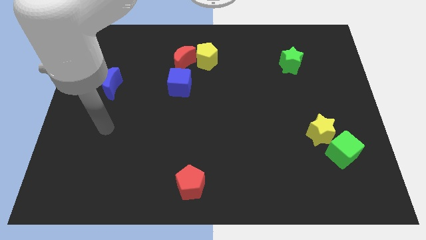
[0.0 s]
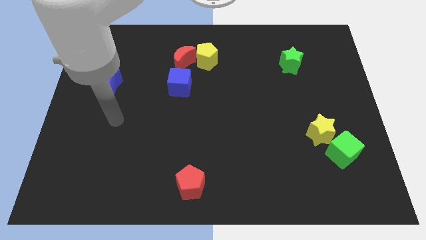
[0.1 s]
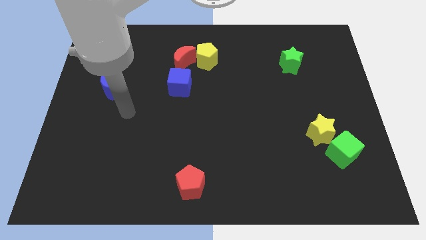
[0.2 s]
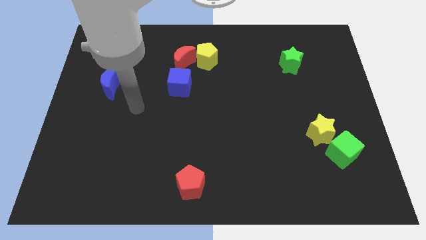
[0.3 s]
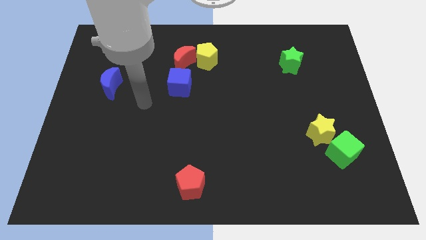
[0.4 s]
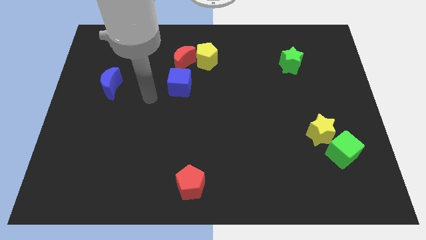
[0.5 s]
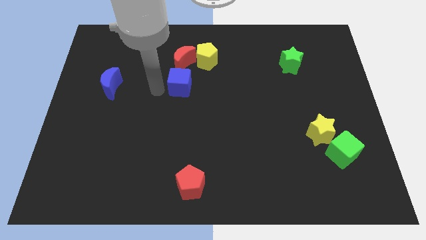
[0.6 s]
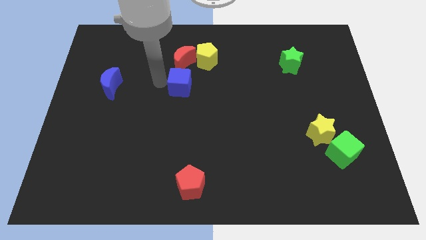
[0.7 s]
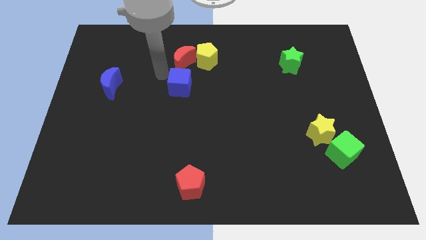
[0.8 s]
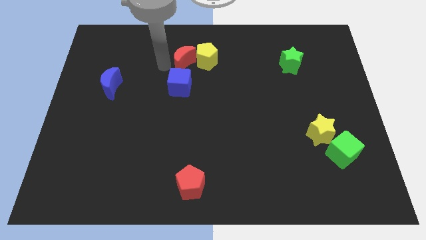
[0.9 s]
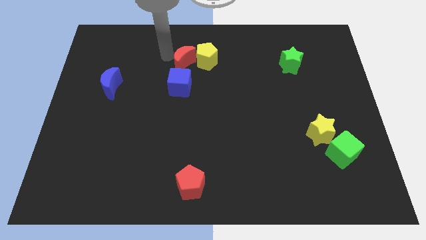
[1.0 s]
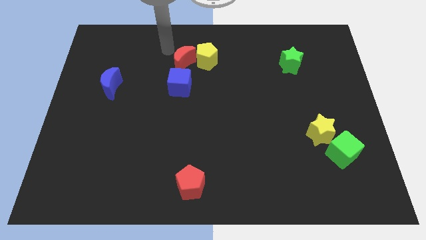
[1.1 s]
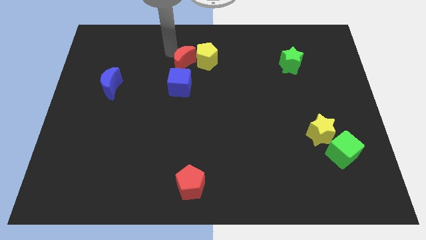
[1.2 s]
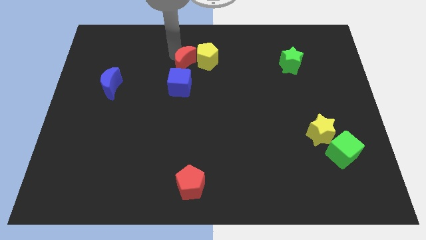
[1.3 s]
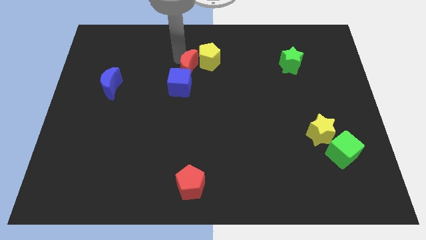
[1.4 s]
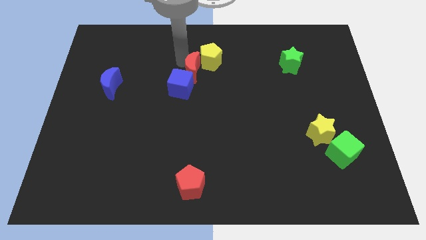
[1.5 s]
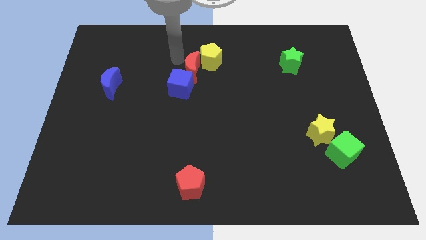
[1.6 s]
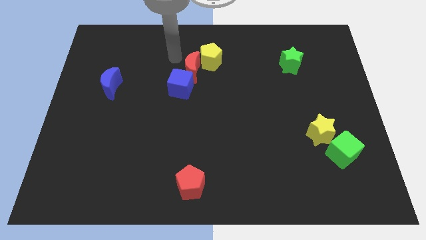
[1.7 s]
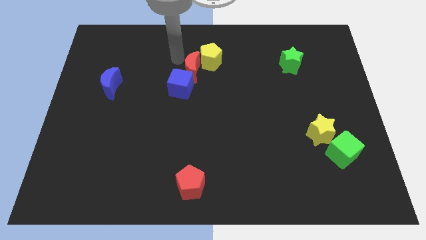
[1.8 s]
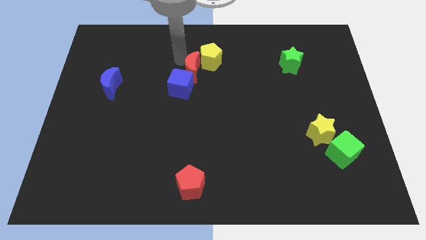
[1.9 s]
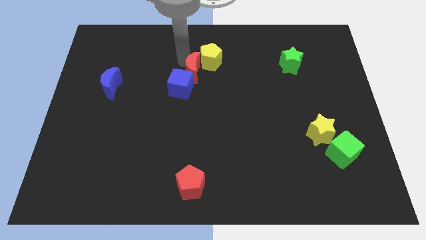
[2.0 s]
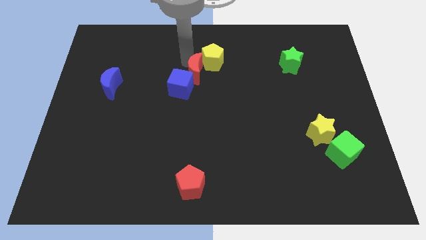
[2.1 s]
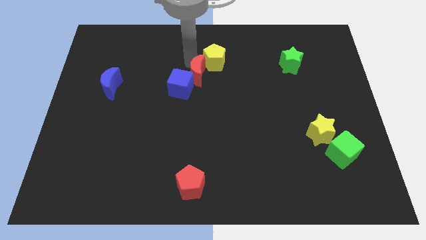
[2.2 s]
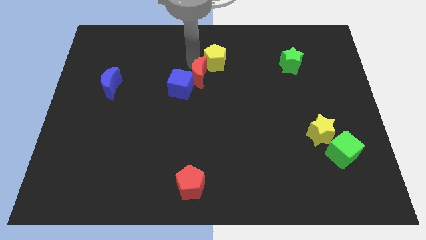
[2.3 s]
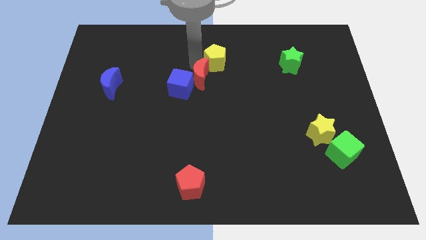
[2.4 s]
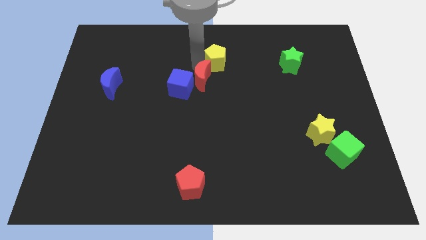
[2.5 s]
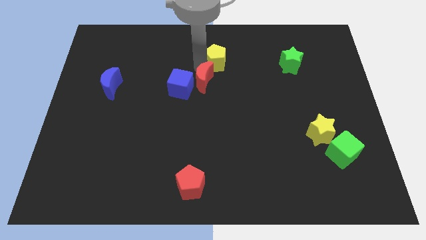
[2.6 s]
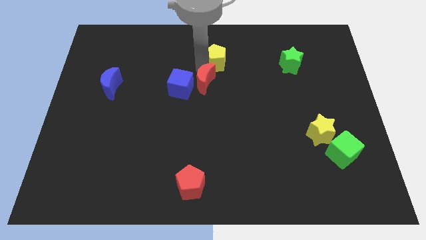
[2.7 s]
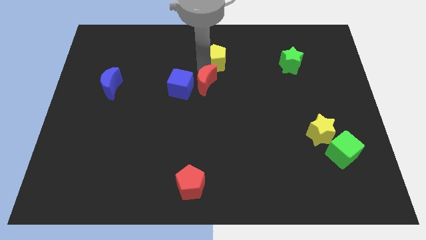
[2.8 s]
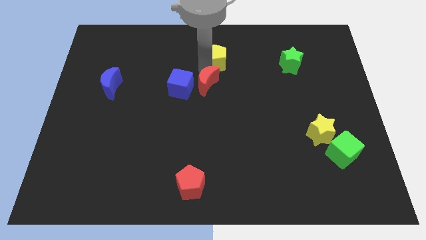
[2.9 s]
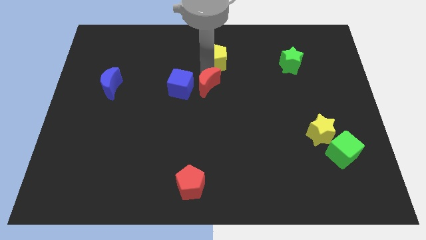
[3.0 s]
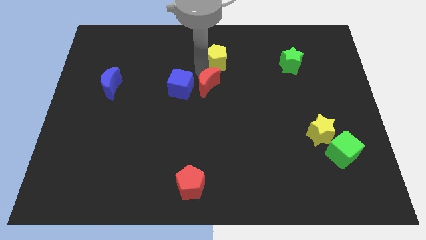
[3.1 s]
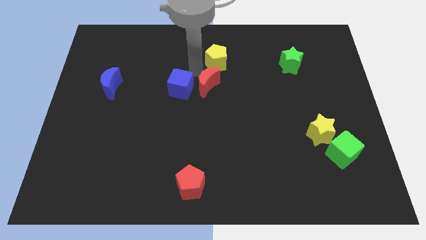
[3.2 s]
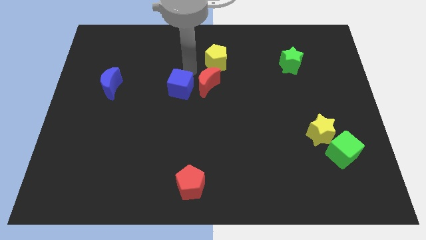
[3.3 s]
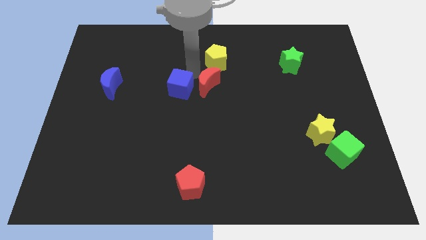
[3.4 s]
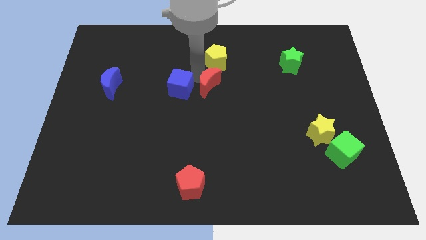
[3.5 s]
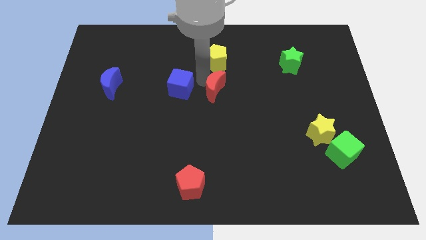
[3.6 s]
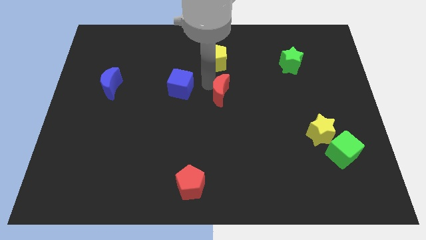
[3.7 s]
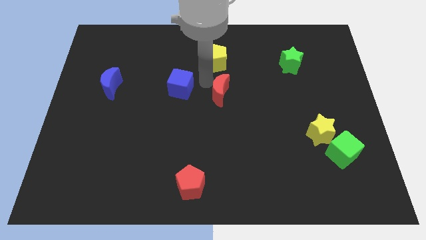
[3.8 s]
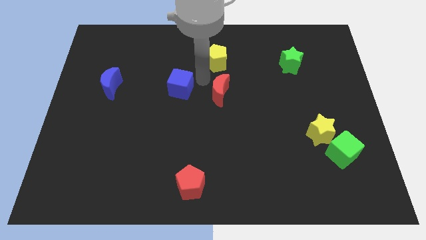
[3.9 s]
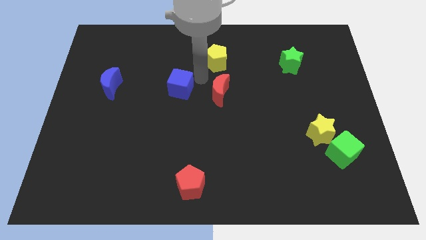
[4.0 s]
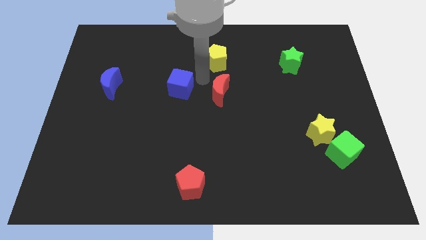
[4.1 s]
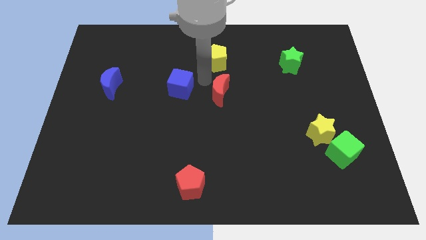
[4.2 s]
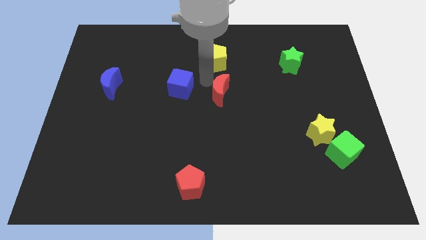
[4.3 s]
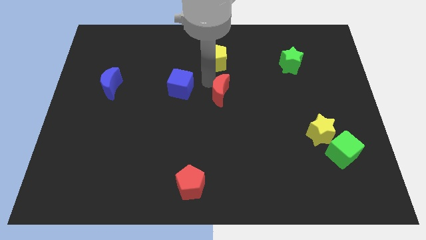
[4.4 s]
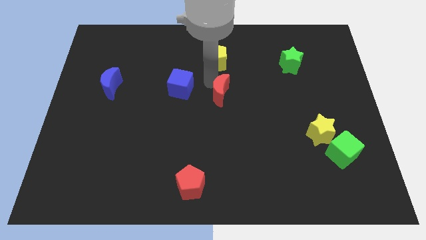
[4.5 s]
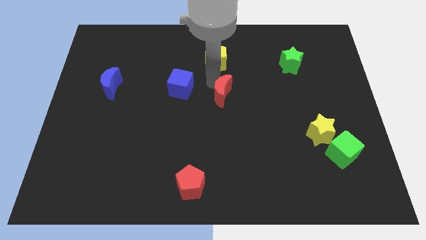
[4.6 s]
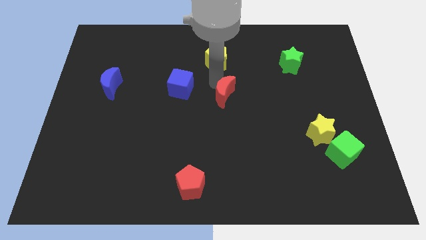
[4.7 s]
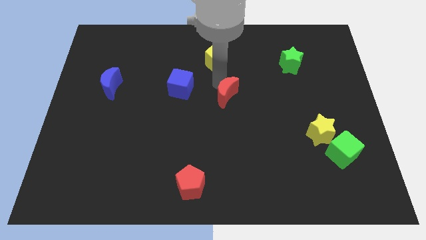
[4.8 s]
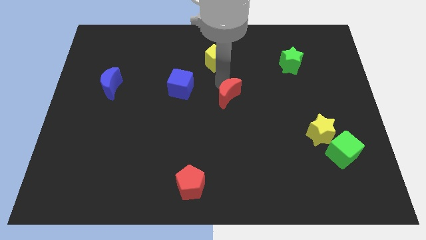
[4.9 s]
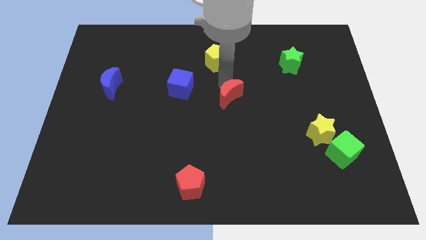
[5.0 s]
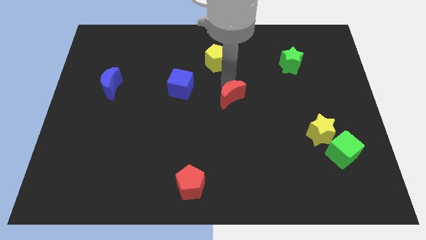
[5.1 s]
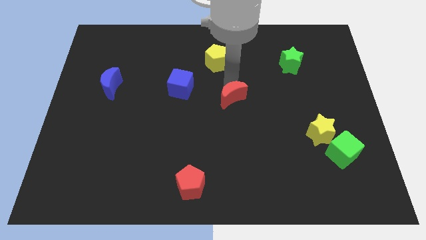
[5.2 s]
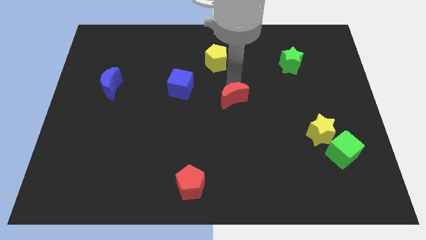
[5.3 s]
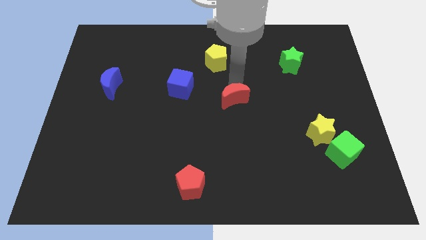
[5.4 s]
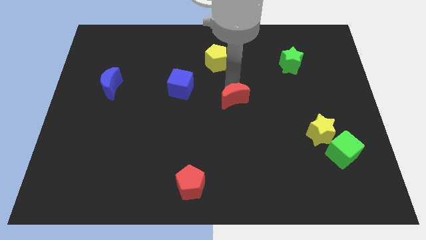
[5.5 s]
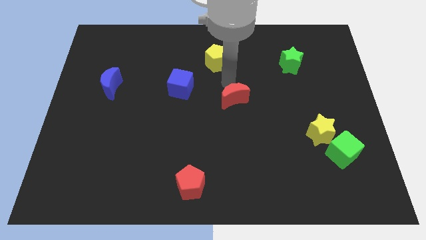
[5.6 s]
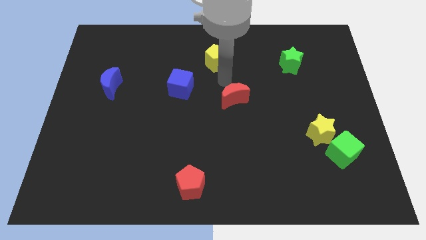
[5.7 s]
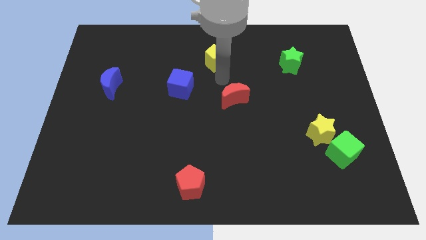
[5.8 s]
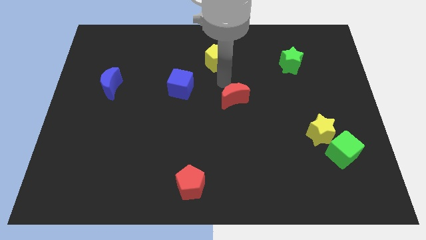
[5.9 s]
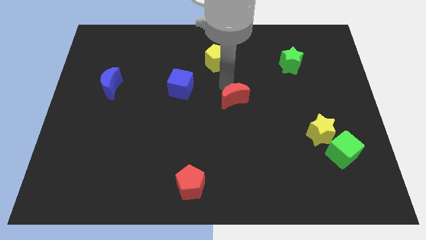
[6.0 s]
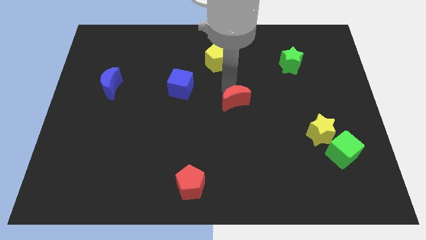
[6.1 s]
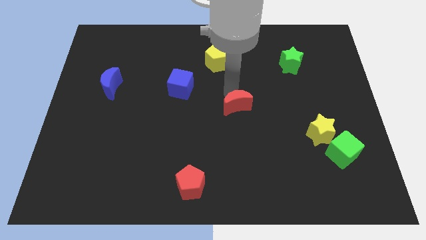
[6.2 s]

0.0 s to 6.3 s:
push the red moon down and to the right

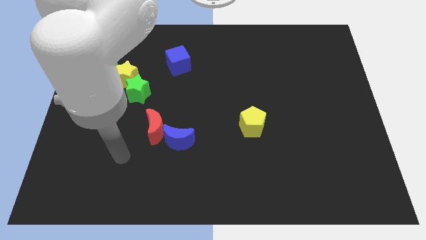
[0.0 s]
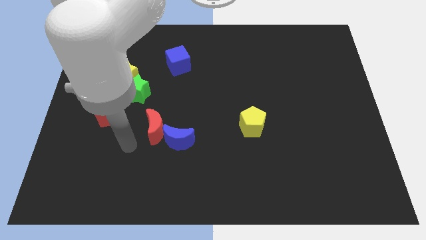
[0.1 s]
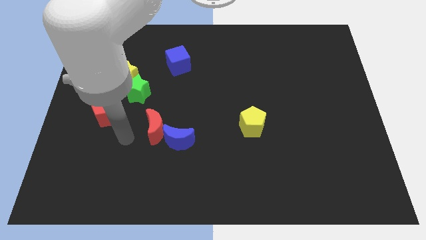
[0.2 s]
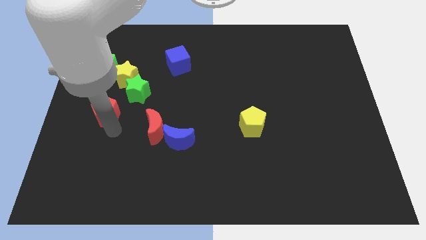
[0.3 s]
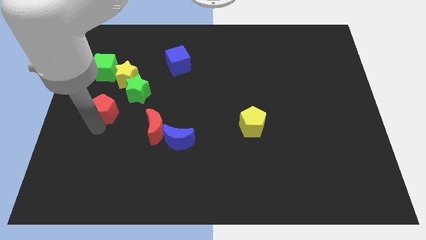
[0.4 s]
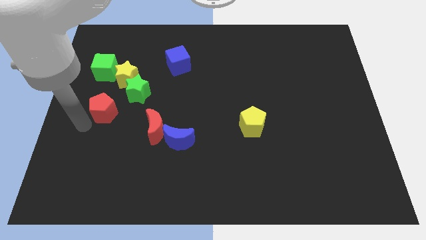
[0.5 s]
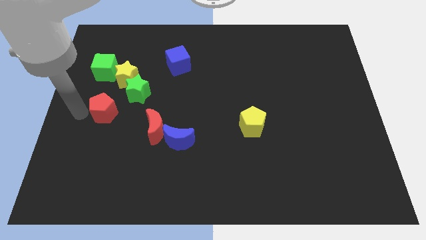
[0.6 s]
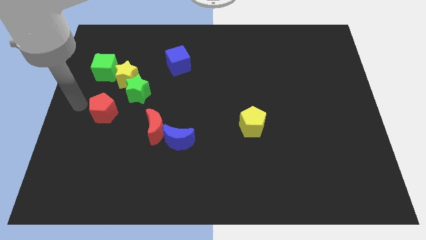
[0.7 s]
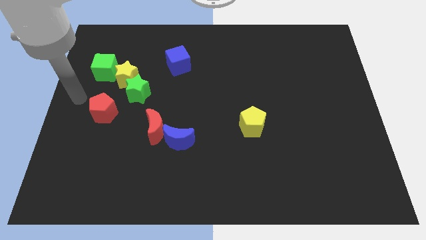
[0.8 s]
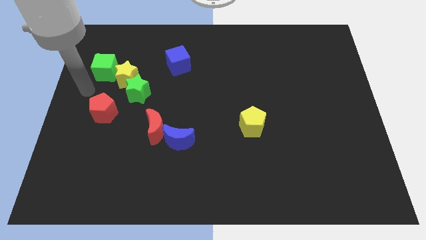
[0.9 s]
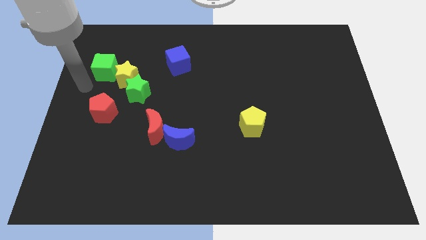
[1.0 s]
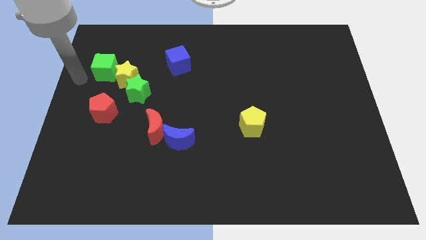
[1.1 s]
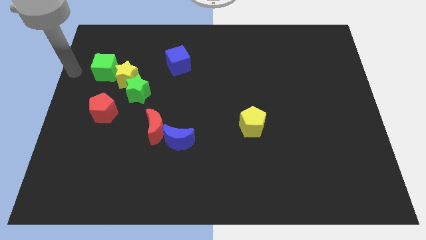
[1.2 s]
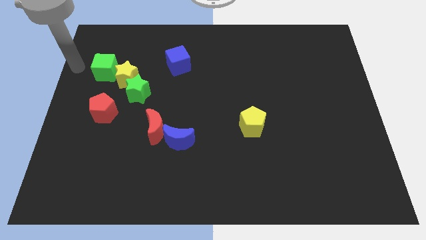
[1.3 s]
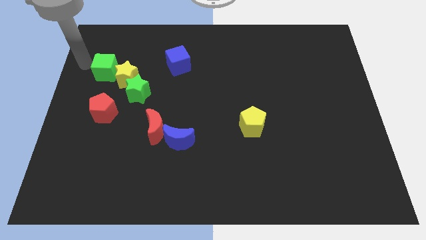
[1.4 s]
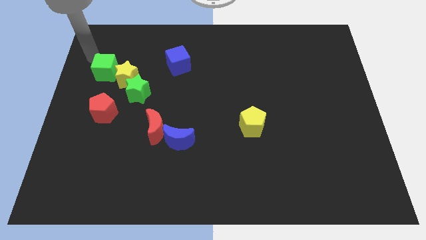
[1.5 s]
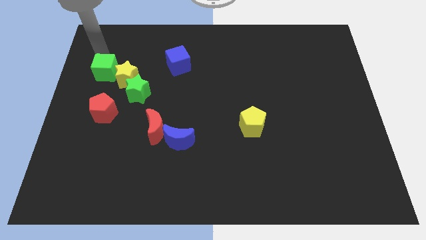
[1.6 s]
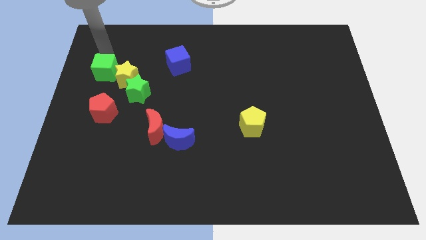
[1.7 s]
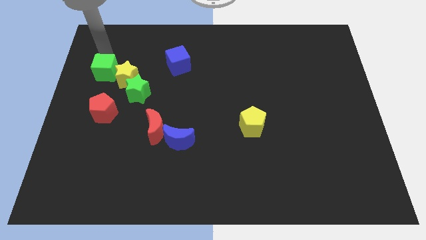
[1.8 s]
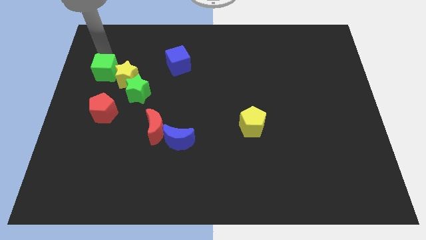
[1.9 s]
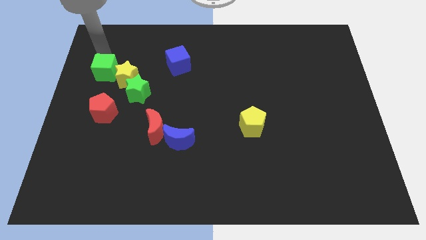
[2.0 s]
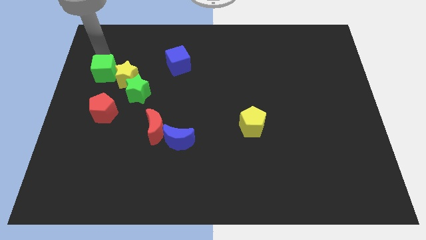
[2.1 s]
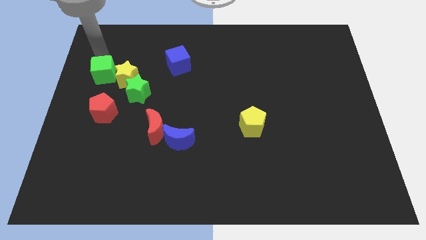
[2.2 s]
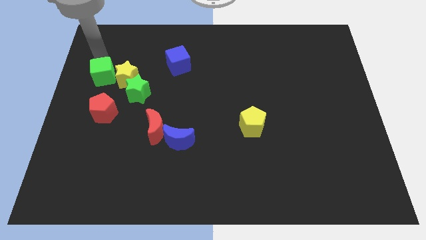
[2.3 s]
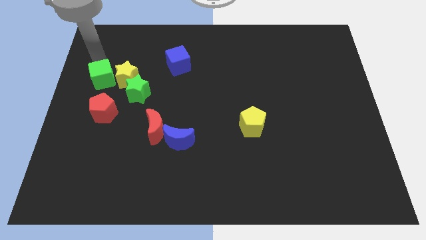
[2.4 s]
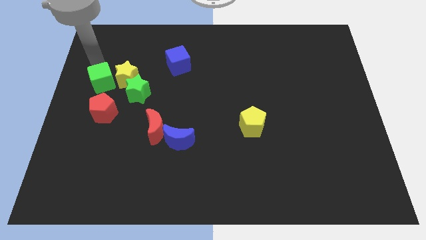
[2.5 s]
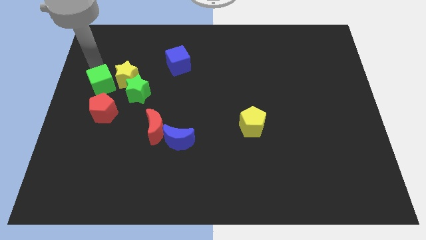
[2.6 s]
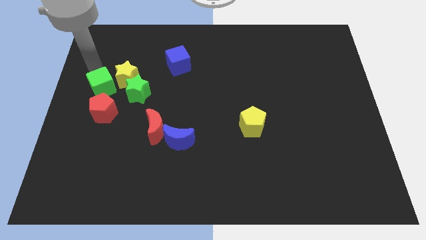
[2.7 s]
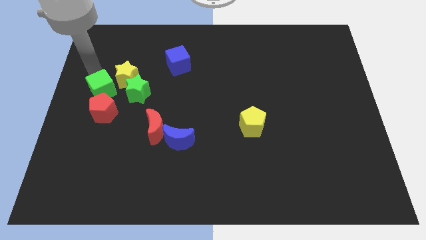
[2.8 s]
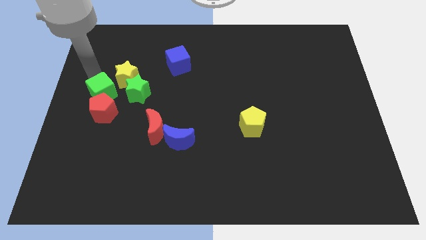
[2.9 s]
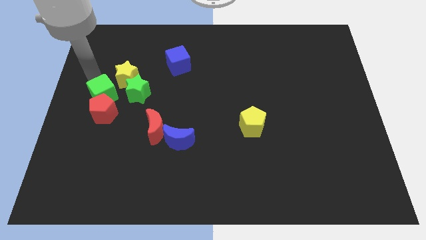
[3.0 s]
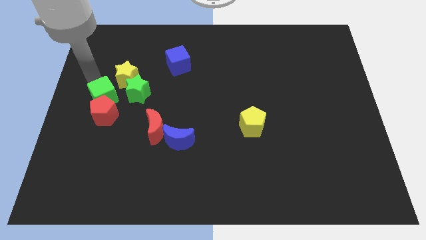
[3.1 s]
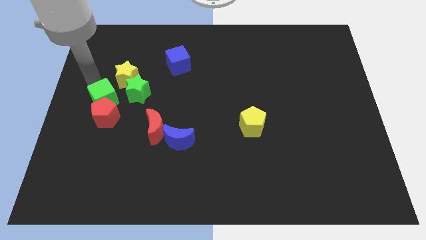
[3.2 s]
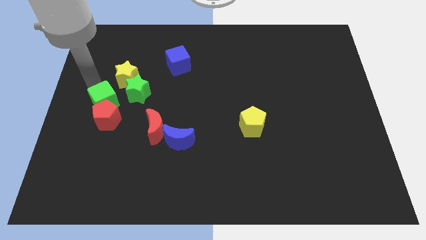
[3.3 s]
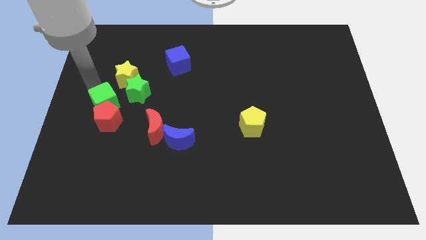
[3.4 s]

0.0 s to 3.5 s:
slide the green cube down and to the right a little
